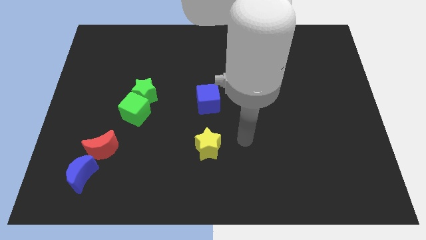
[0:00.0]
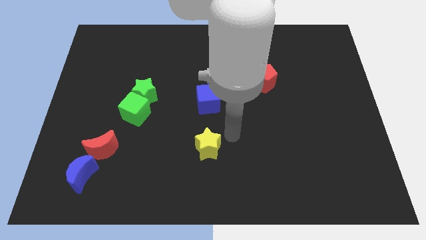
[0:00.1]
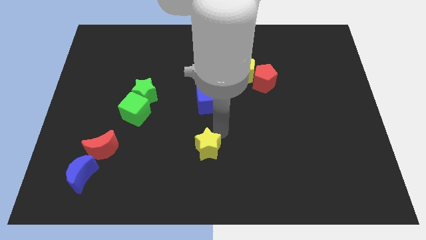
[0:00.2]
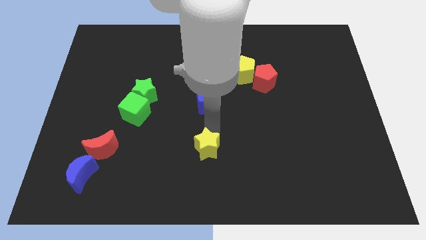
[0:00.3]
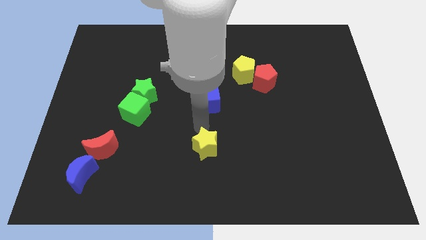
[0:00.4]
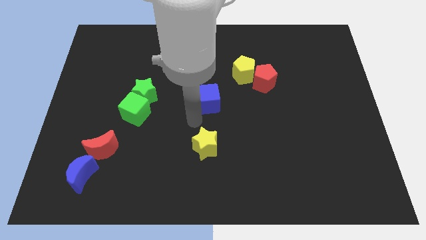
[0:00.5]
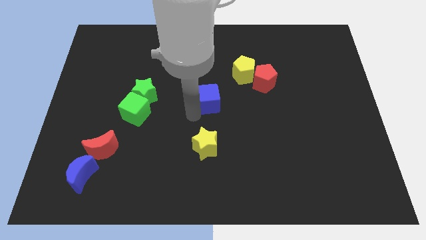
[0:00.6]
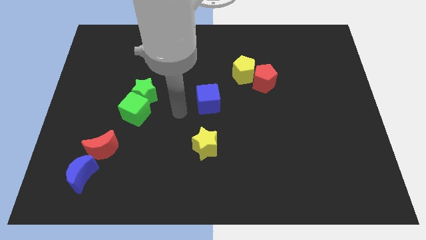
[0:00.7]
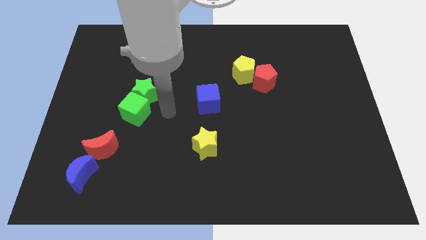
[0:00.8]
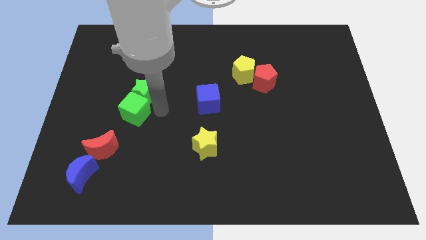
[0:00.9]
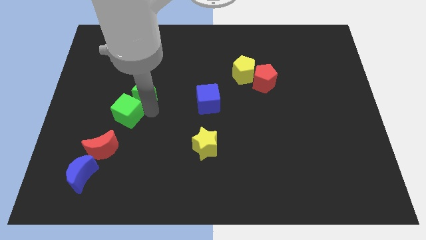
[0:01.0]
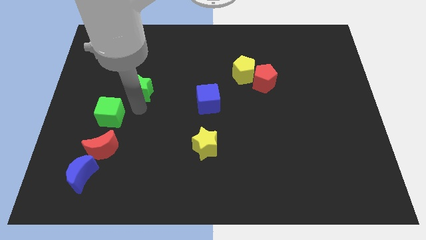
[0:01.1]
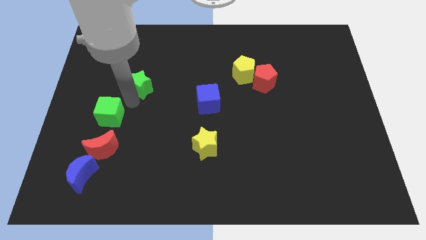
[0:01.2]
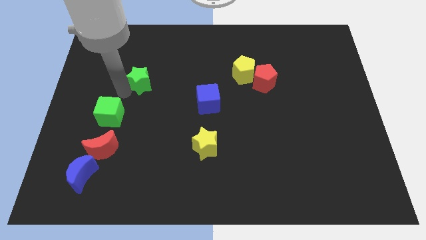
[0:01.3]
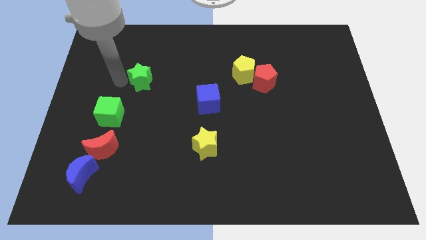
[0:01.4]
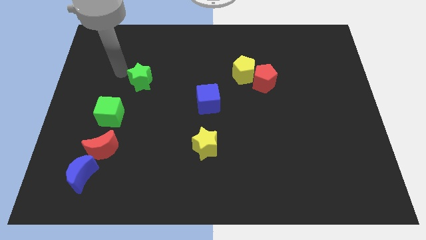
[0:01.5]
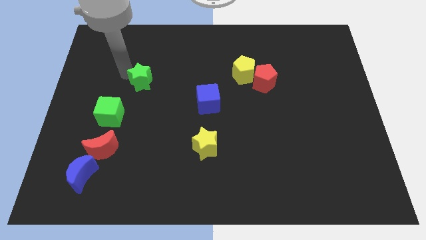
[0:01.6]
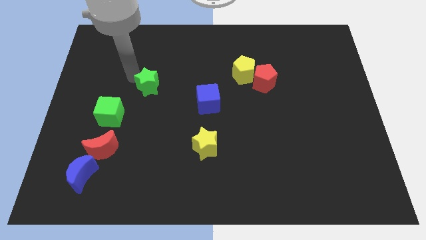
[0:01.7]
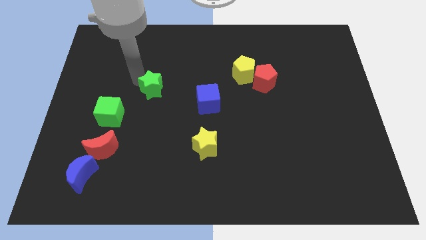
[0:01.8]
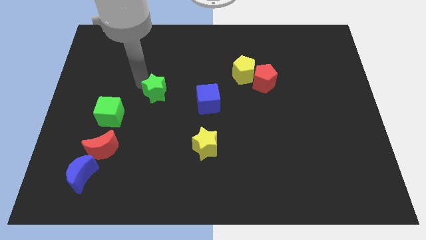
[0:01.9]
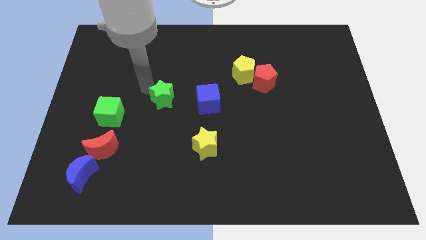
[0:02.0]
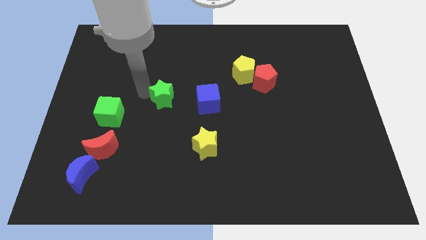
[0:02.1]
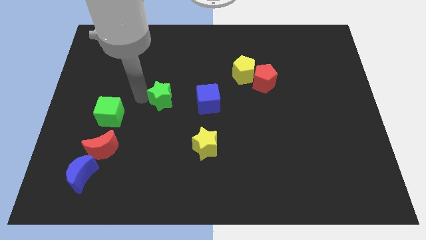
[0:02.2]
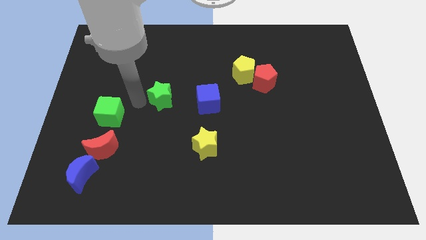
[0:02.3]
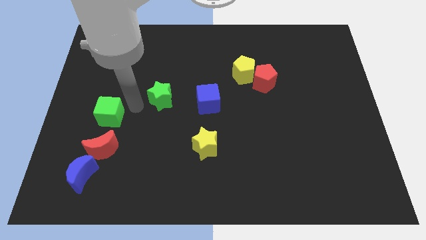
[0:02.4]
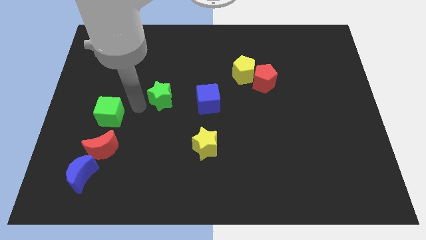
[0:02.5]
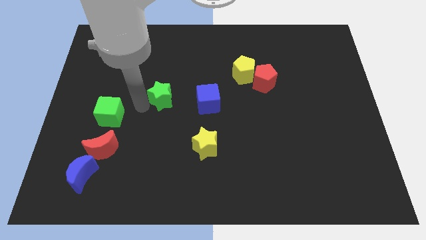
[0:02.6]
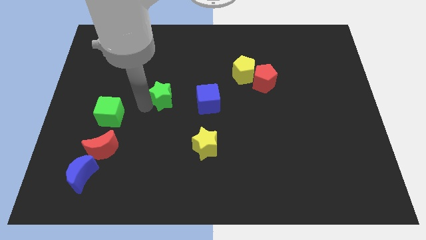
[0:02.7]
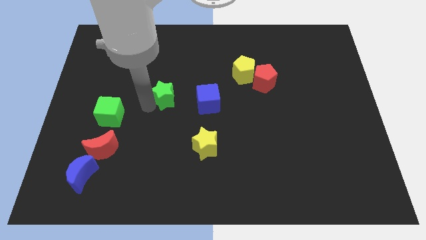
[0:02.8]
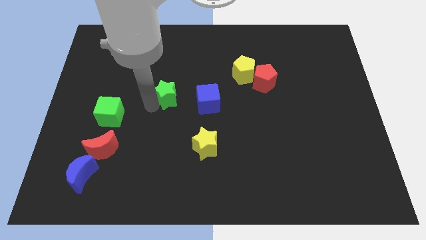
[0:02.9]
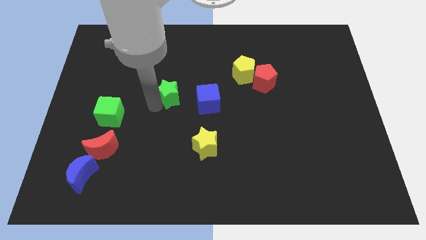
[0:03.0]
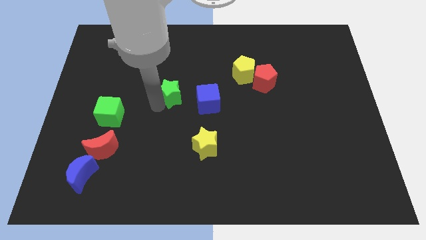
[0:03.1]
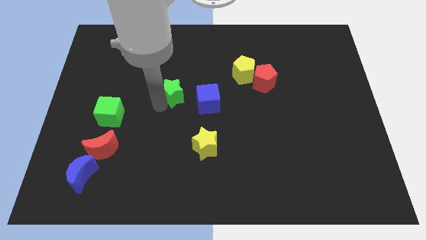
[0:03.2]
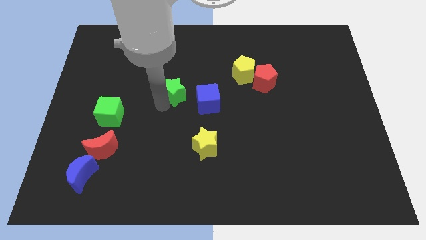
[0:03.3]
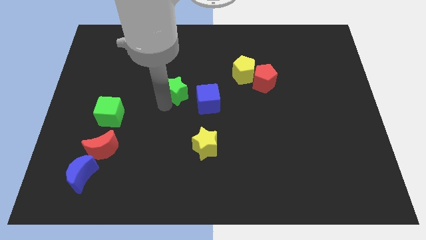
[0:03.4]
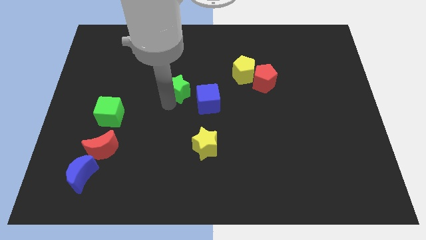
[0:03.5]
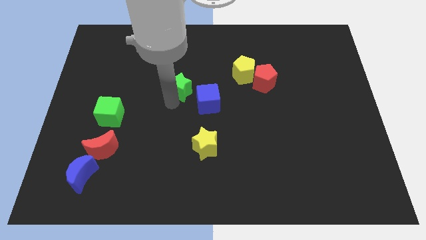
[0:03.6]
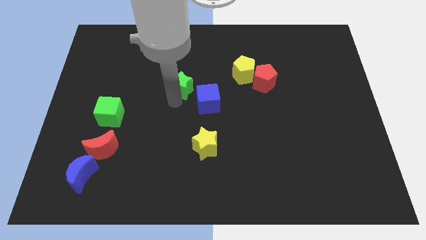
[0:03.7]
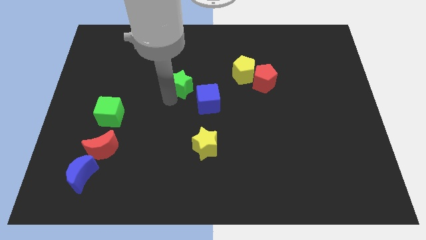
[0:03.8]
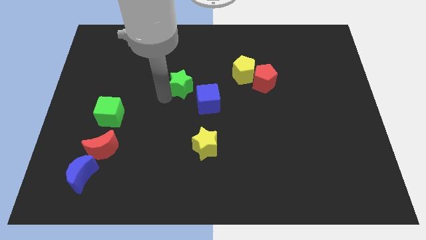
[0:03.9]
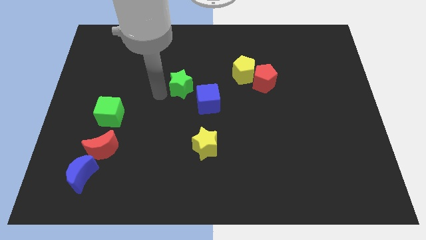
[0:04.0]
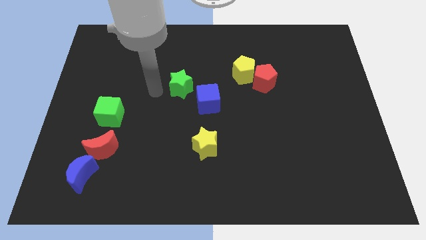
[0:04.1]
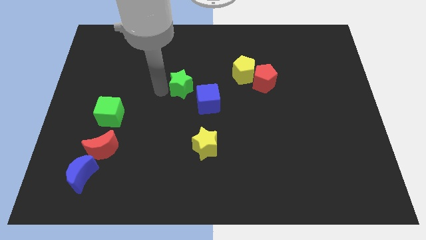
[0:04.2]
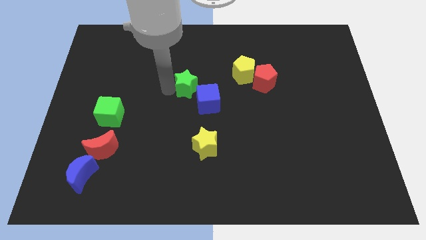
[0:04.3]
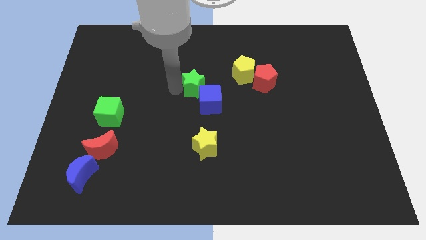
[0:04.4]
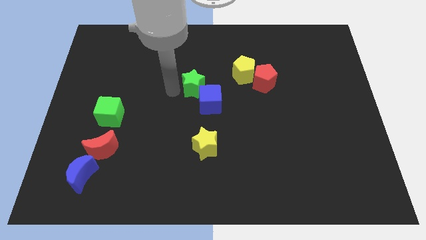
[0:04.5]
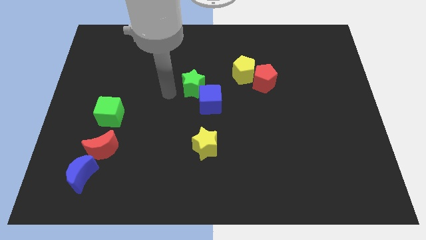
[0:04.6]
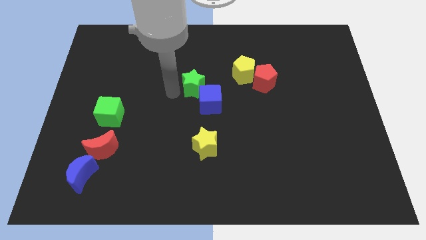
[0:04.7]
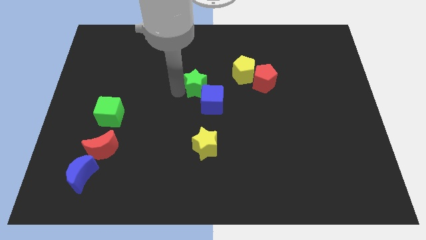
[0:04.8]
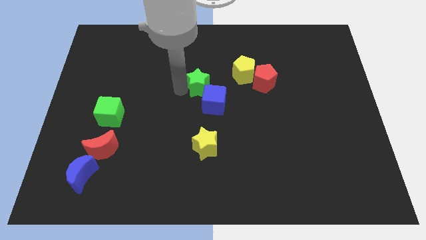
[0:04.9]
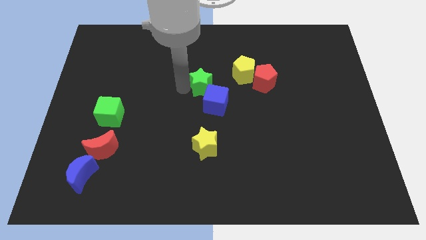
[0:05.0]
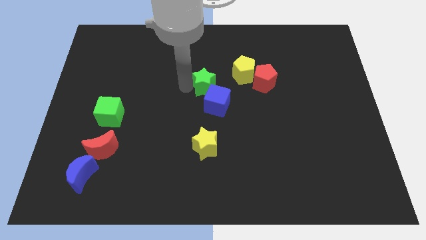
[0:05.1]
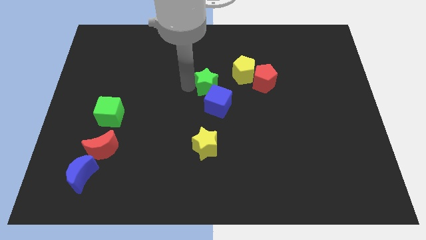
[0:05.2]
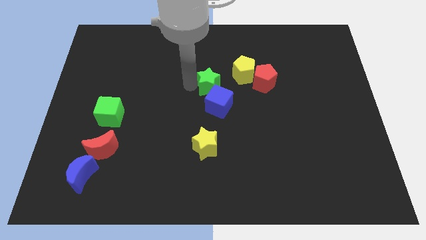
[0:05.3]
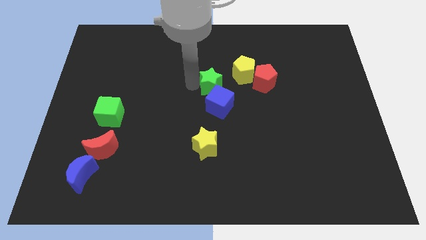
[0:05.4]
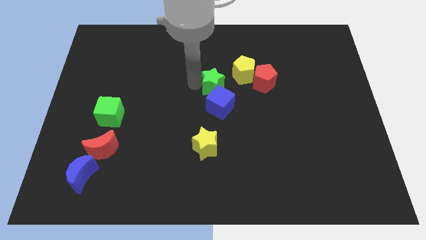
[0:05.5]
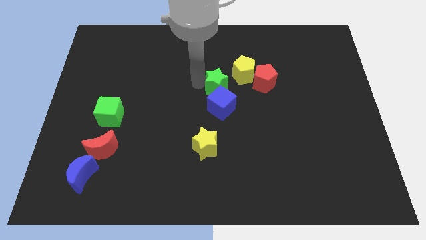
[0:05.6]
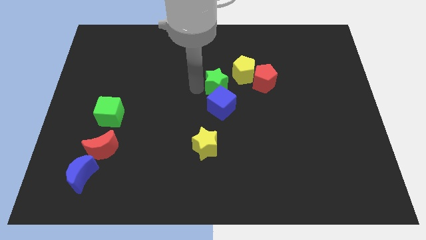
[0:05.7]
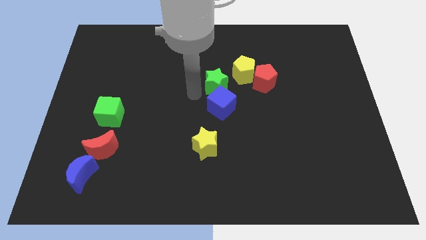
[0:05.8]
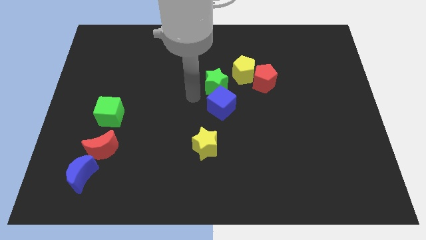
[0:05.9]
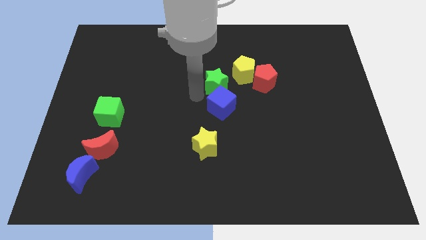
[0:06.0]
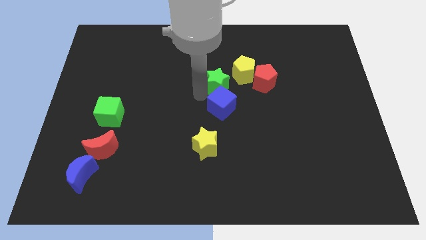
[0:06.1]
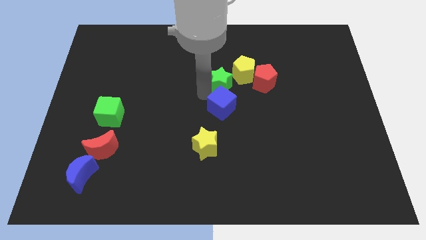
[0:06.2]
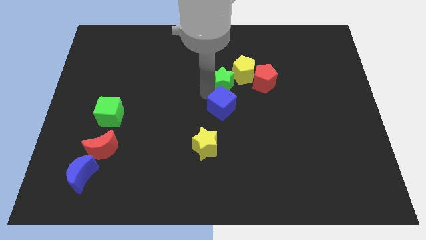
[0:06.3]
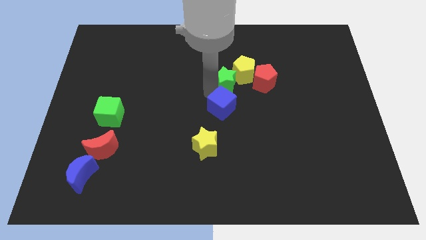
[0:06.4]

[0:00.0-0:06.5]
slide the green star to the yellow pentagon

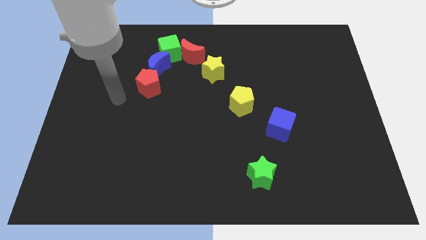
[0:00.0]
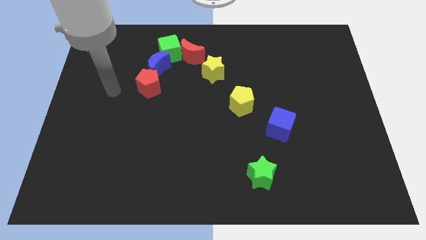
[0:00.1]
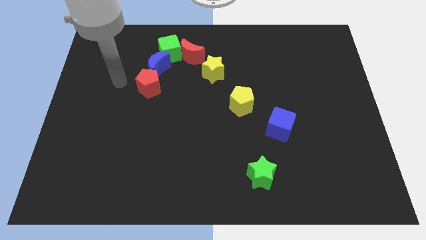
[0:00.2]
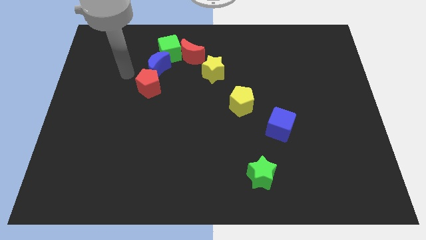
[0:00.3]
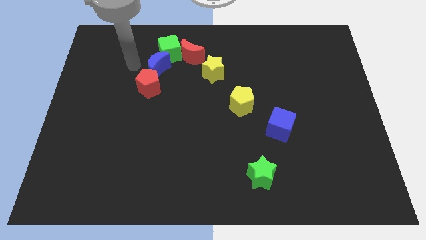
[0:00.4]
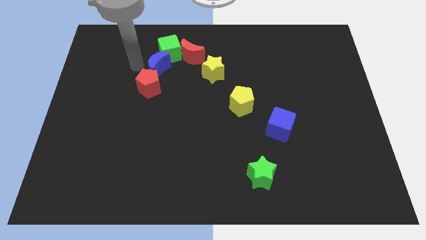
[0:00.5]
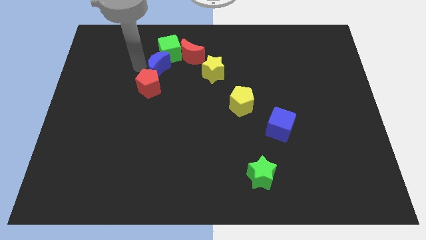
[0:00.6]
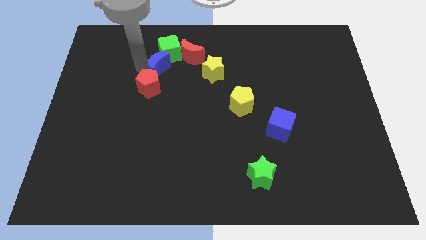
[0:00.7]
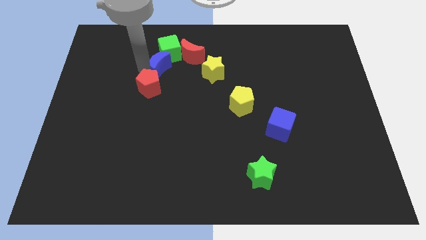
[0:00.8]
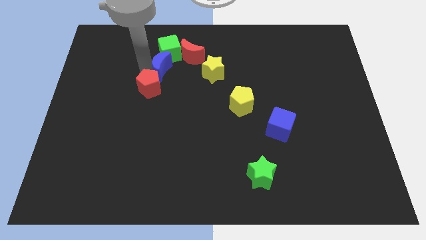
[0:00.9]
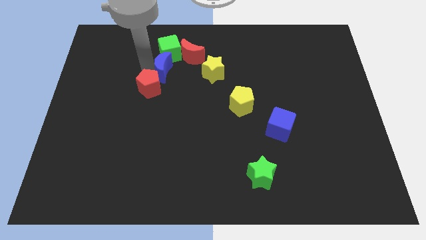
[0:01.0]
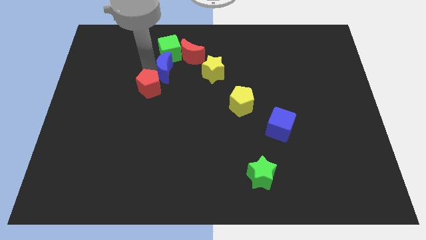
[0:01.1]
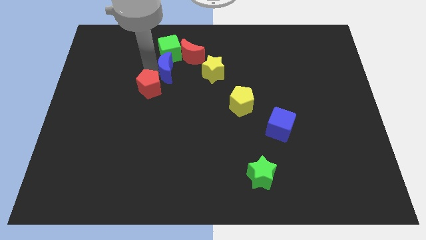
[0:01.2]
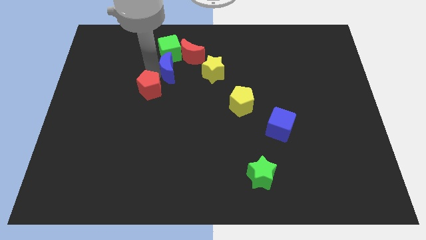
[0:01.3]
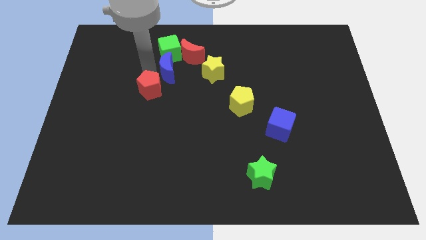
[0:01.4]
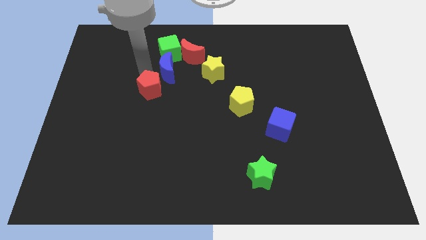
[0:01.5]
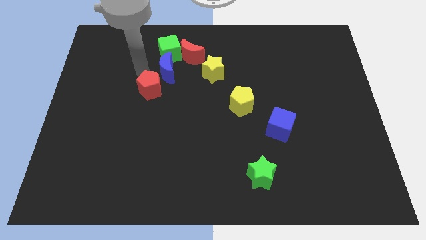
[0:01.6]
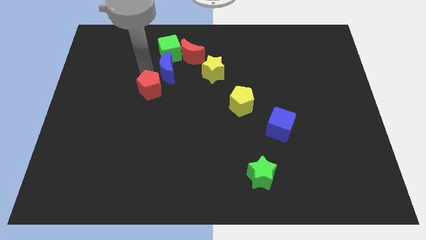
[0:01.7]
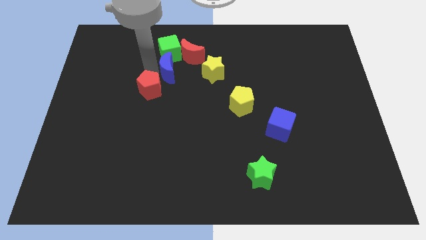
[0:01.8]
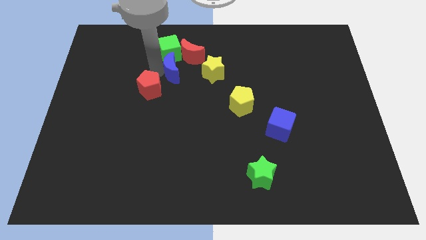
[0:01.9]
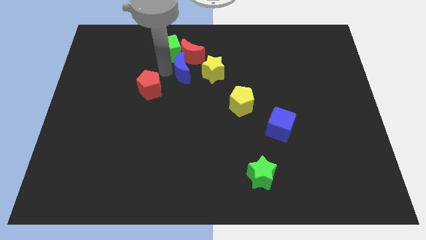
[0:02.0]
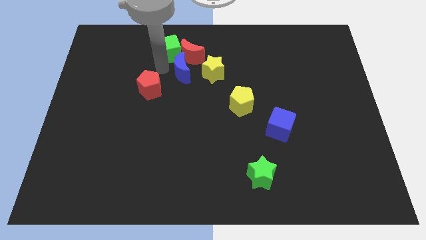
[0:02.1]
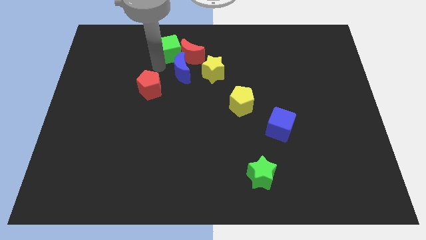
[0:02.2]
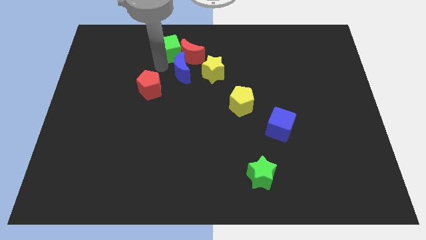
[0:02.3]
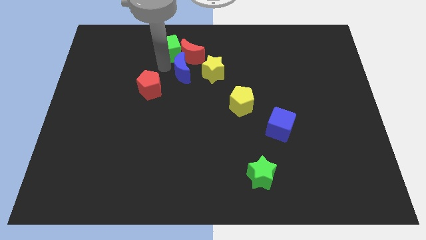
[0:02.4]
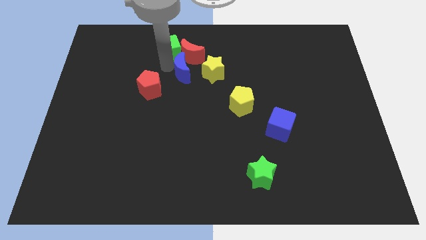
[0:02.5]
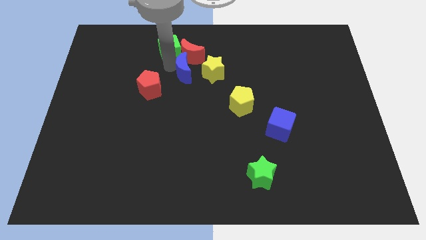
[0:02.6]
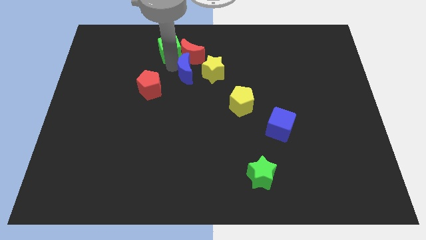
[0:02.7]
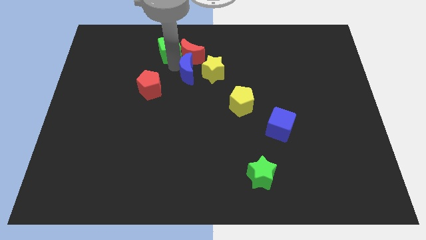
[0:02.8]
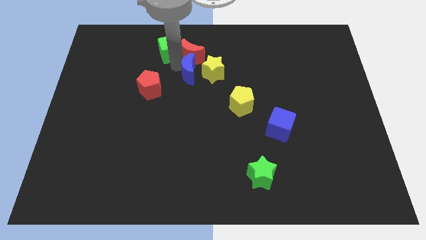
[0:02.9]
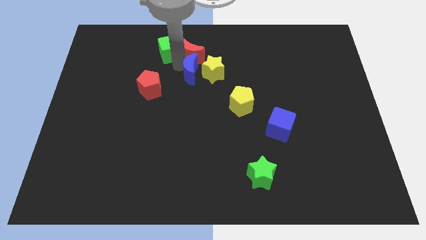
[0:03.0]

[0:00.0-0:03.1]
put the blue moon next to the yellow star
